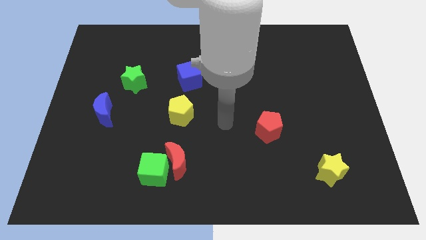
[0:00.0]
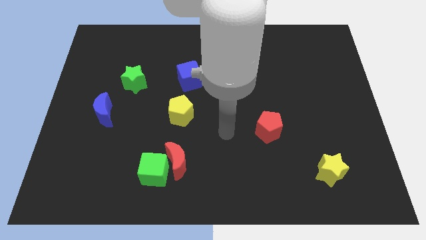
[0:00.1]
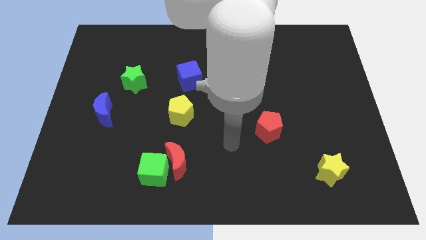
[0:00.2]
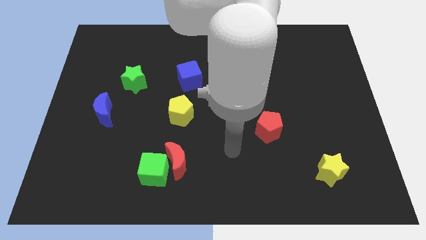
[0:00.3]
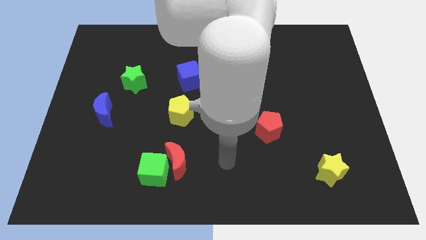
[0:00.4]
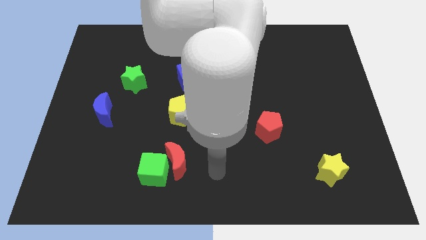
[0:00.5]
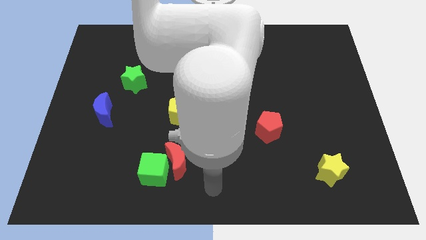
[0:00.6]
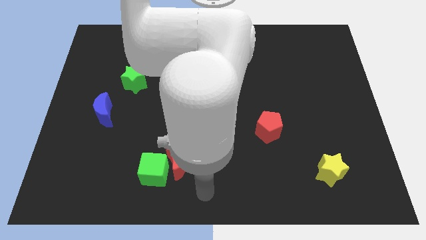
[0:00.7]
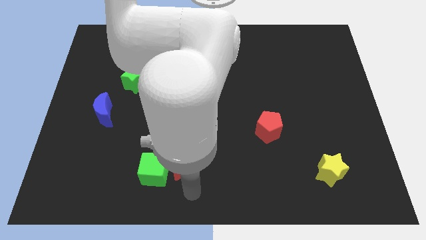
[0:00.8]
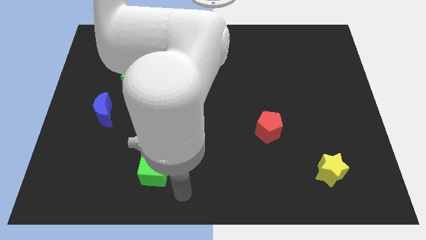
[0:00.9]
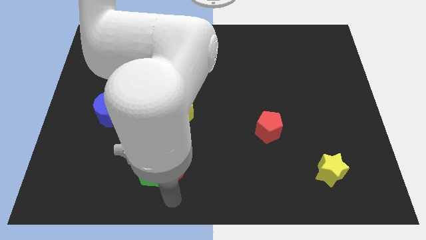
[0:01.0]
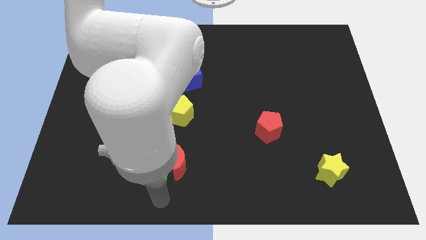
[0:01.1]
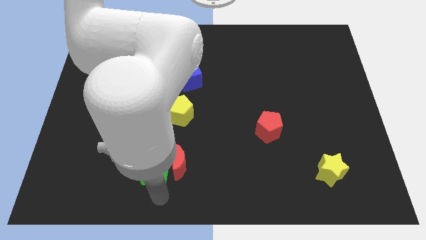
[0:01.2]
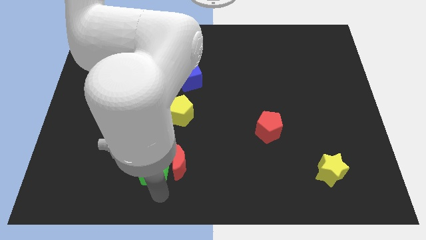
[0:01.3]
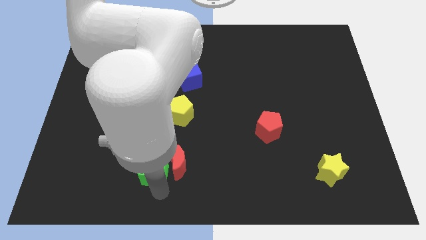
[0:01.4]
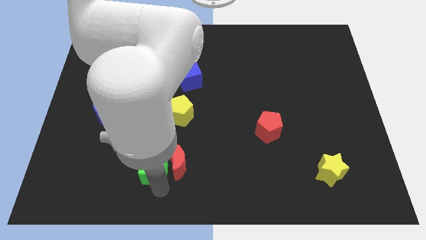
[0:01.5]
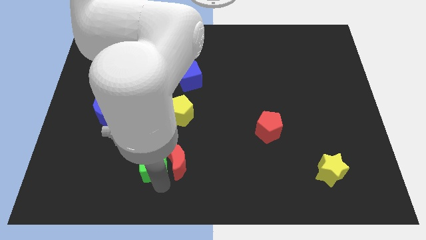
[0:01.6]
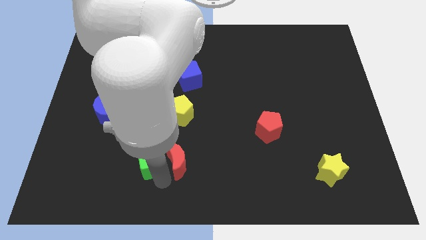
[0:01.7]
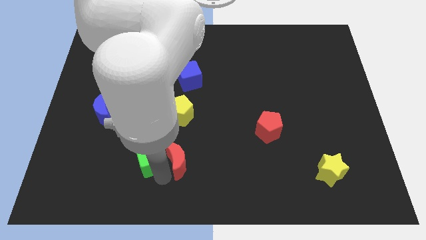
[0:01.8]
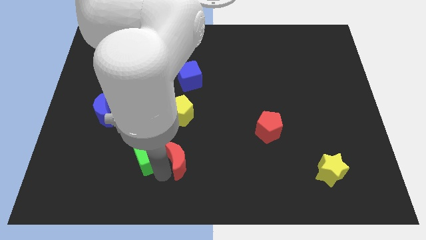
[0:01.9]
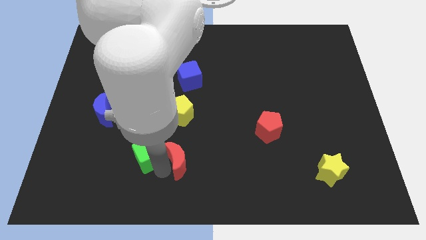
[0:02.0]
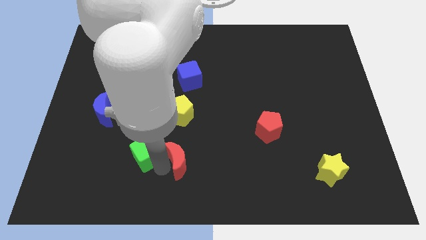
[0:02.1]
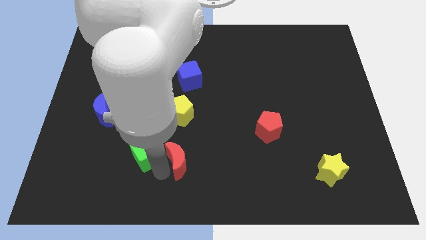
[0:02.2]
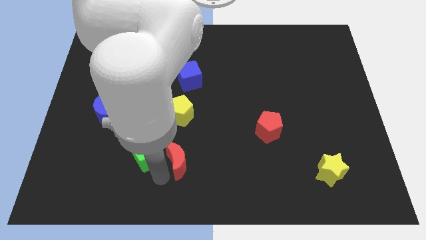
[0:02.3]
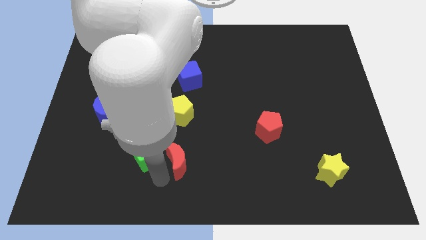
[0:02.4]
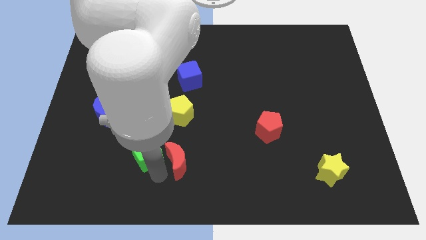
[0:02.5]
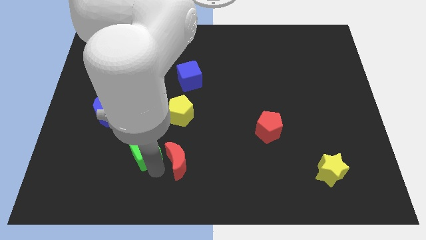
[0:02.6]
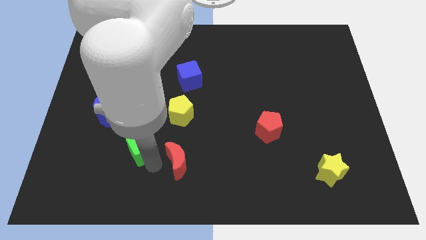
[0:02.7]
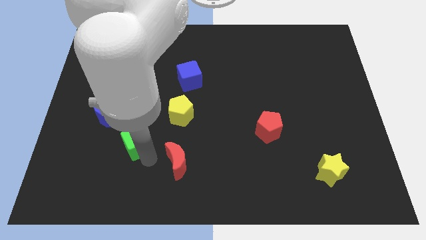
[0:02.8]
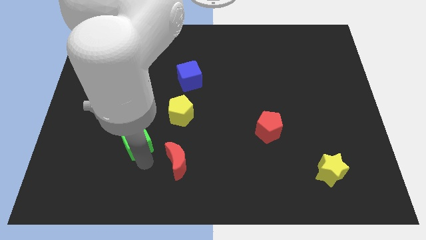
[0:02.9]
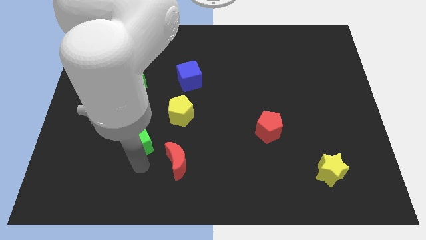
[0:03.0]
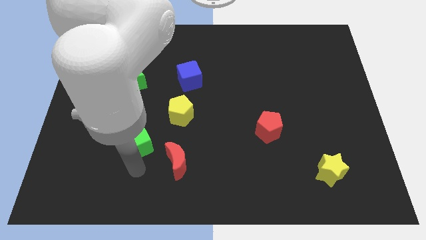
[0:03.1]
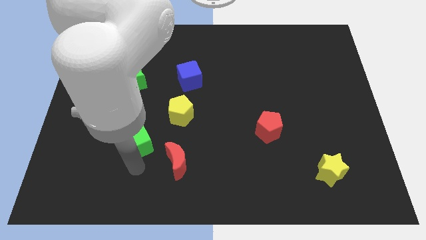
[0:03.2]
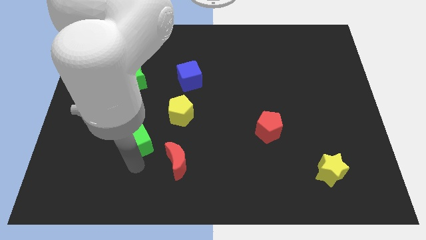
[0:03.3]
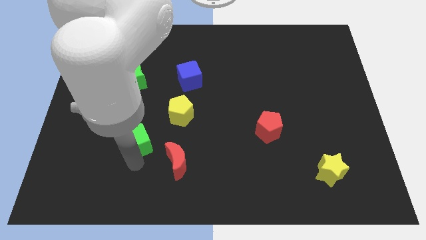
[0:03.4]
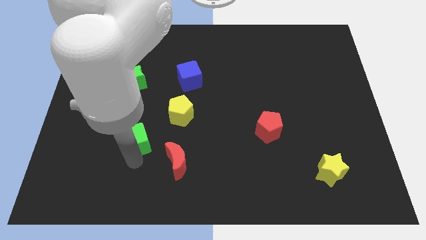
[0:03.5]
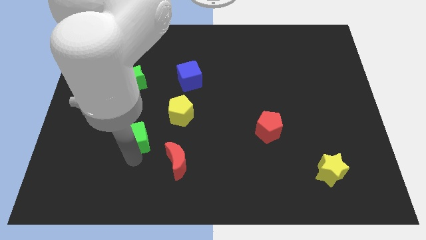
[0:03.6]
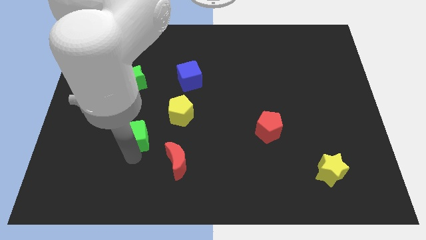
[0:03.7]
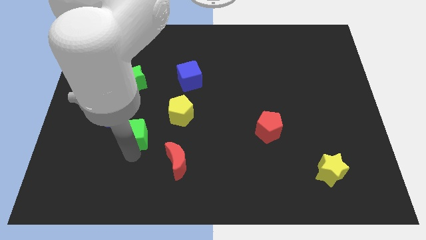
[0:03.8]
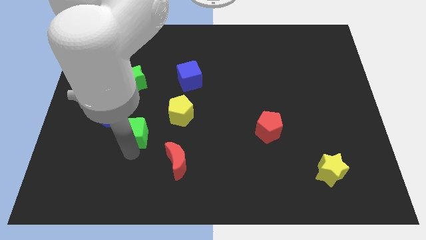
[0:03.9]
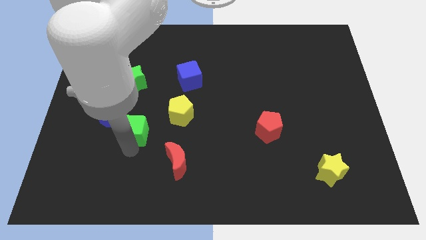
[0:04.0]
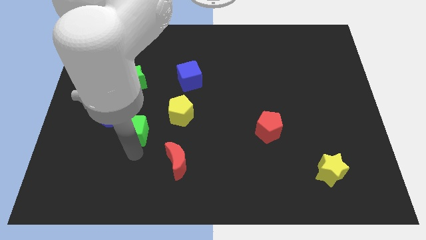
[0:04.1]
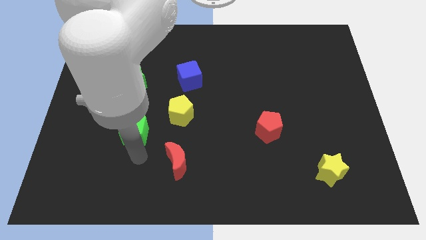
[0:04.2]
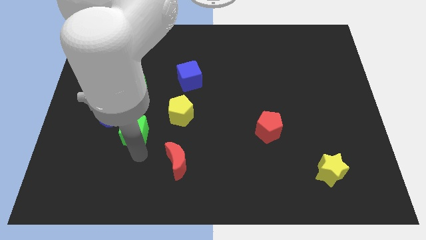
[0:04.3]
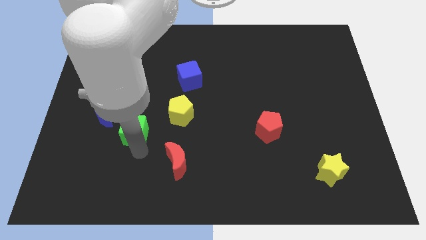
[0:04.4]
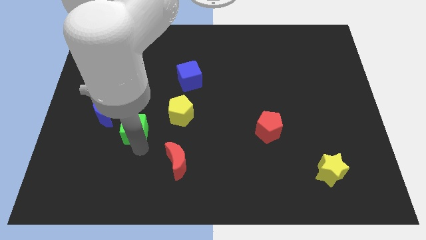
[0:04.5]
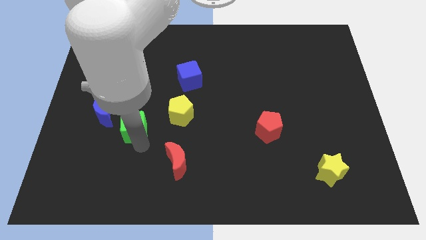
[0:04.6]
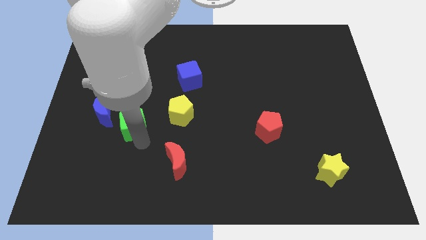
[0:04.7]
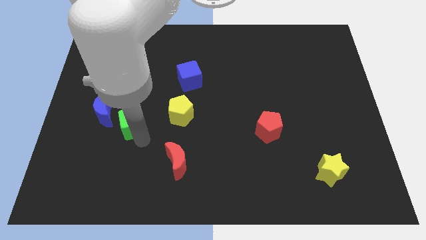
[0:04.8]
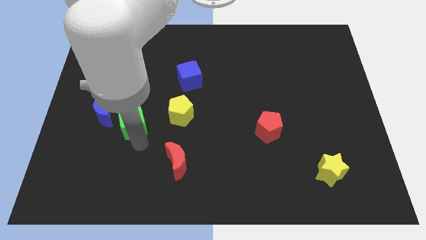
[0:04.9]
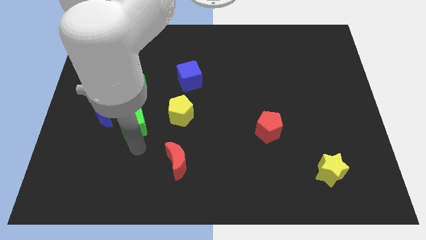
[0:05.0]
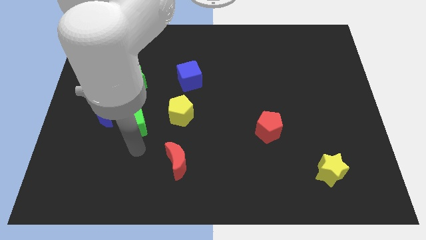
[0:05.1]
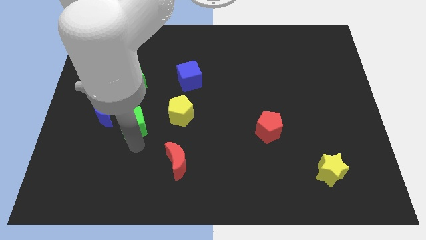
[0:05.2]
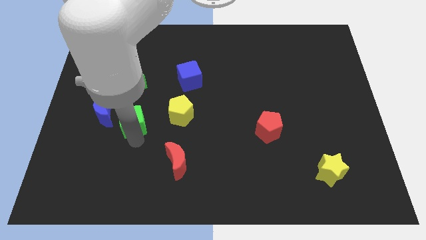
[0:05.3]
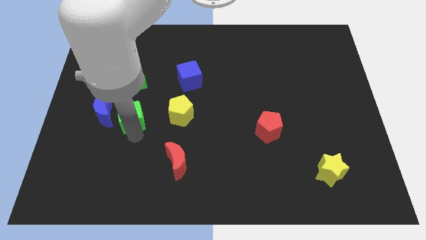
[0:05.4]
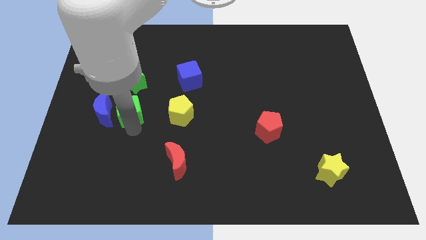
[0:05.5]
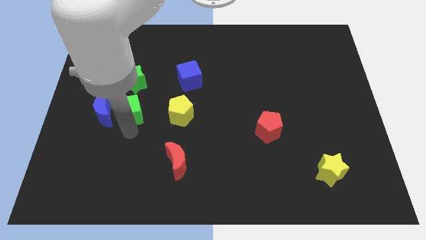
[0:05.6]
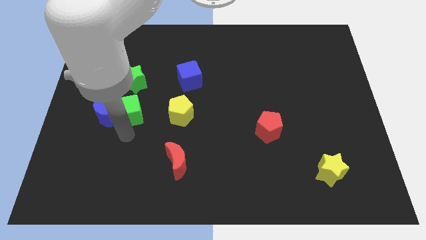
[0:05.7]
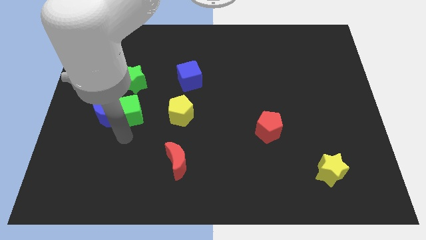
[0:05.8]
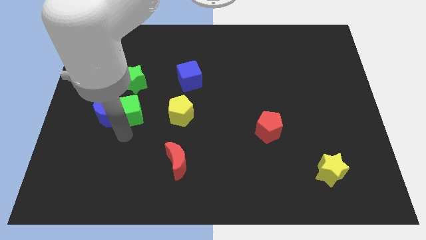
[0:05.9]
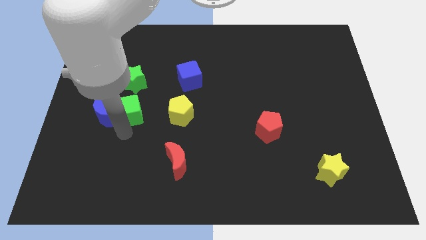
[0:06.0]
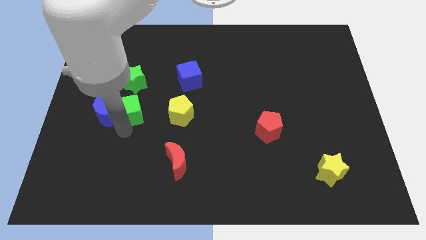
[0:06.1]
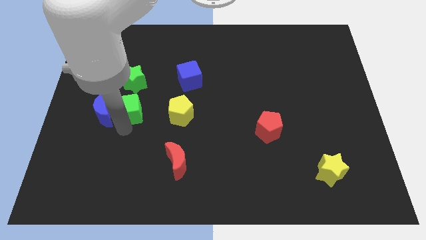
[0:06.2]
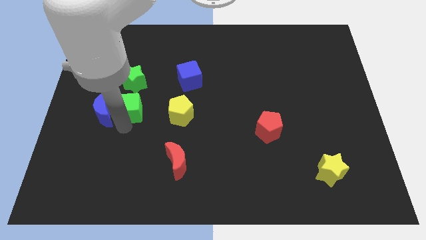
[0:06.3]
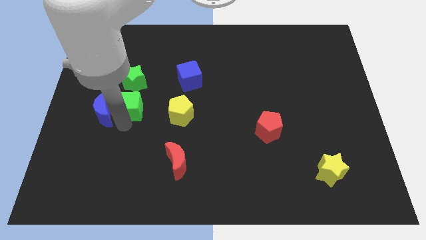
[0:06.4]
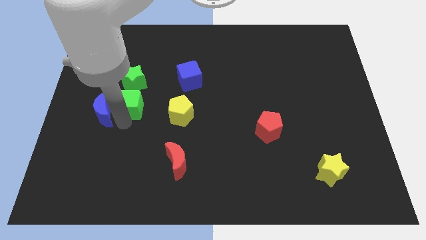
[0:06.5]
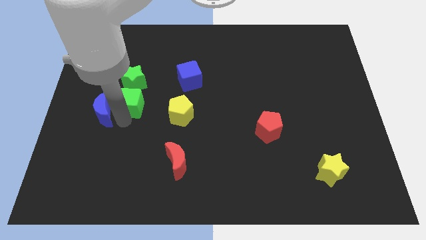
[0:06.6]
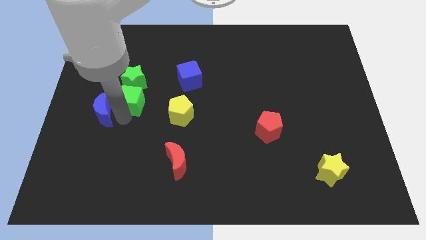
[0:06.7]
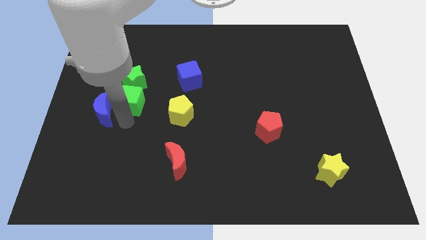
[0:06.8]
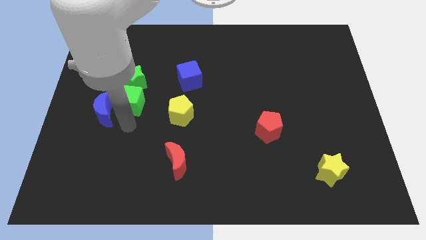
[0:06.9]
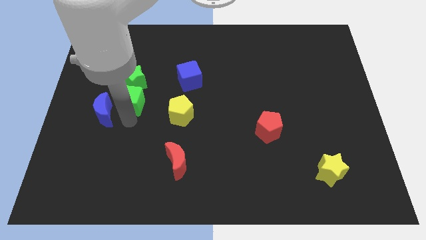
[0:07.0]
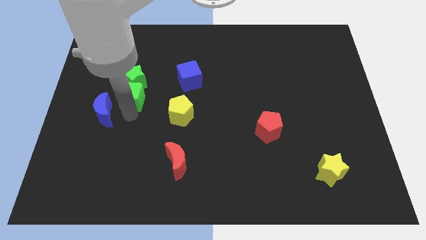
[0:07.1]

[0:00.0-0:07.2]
move the green cube towards the green star

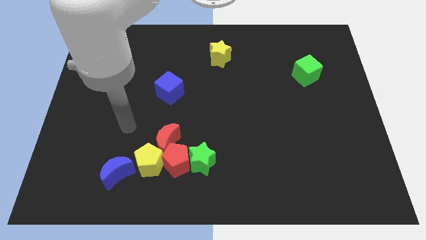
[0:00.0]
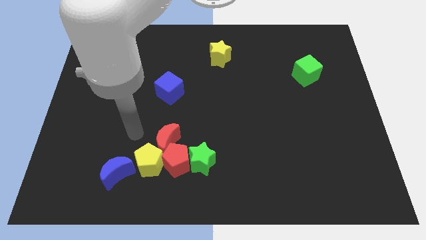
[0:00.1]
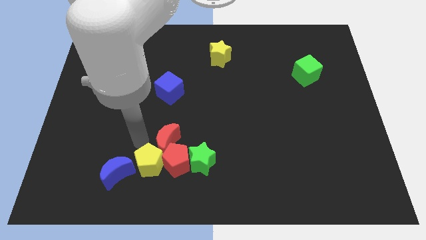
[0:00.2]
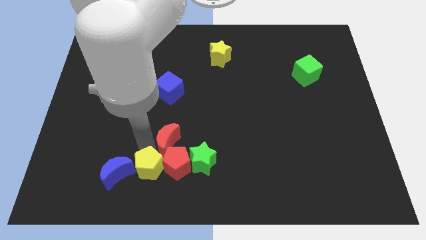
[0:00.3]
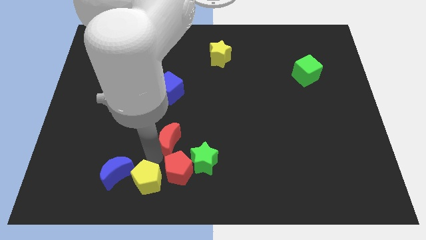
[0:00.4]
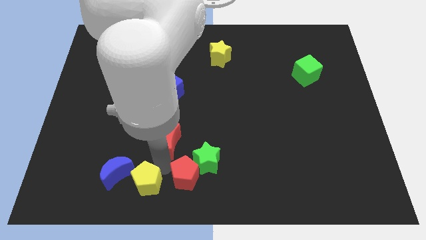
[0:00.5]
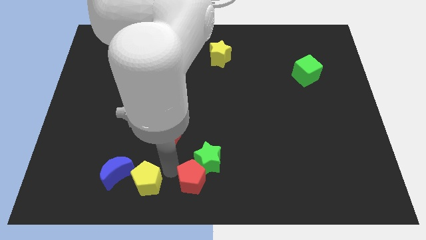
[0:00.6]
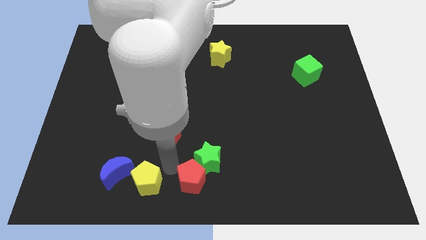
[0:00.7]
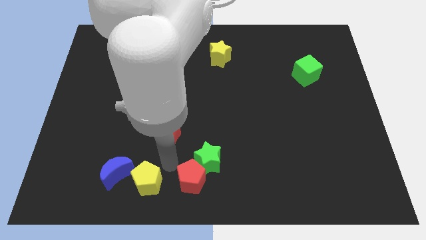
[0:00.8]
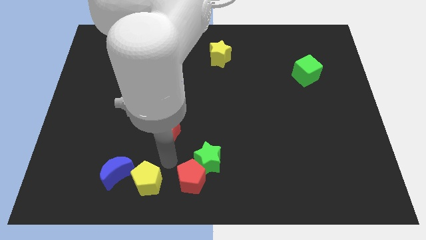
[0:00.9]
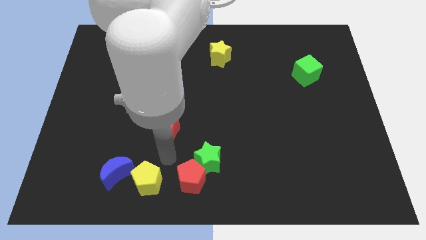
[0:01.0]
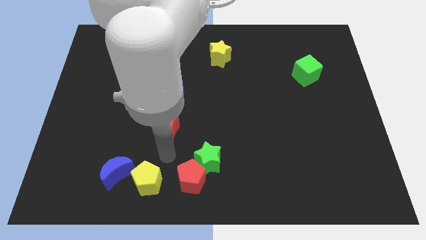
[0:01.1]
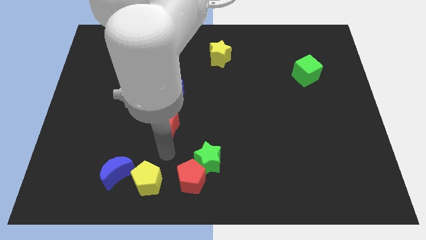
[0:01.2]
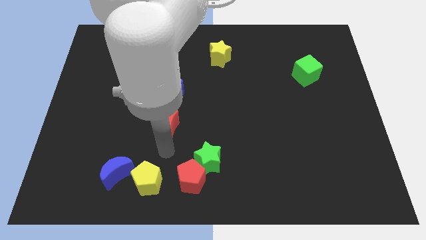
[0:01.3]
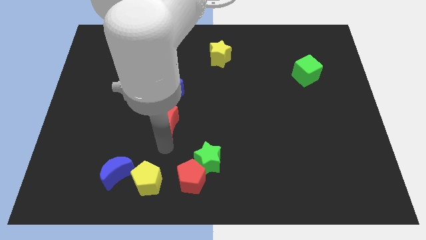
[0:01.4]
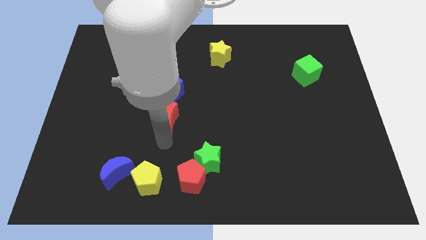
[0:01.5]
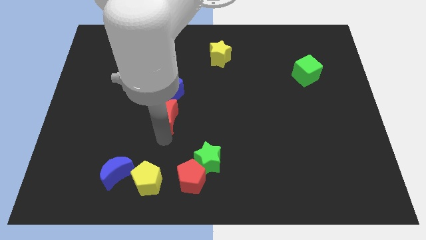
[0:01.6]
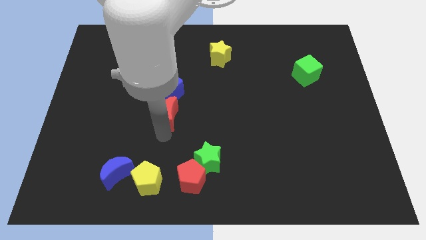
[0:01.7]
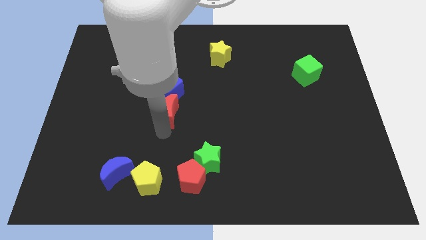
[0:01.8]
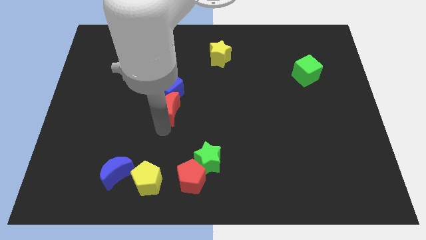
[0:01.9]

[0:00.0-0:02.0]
move the red moon next to the blue cube
